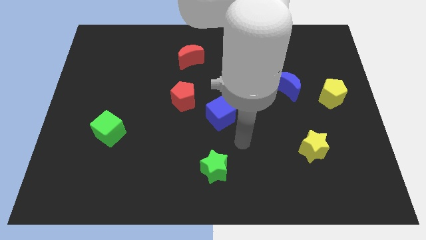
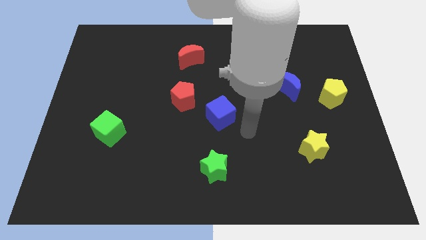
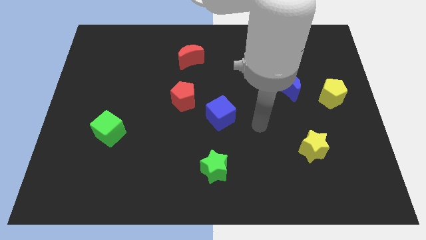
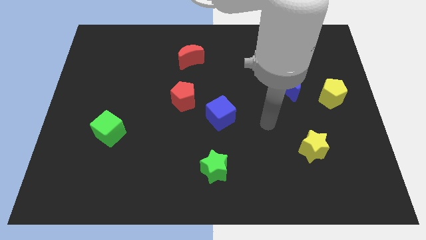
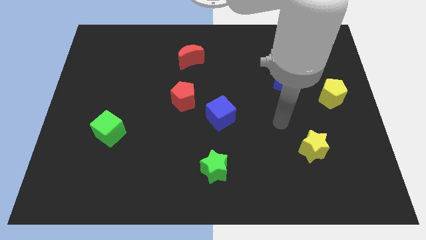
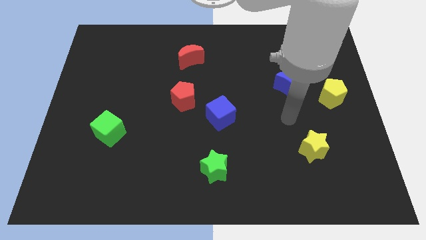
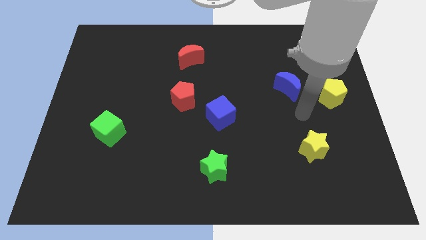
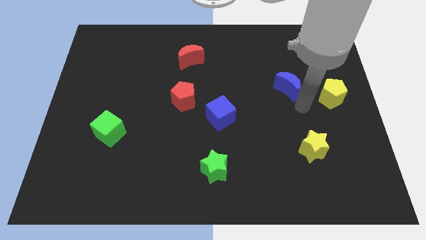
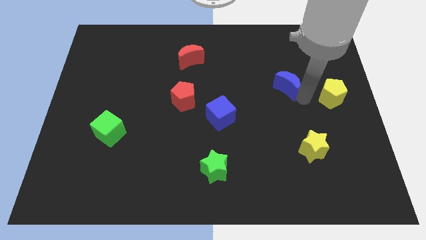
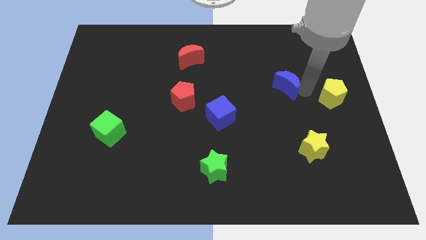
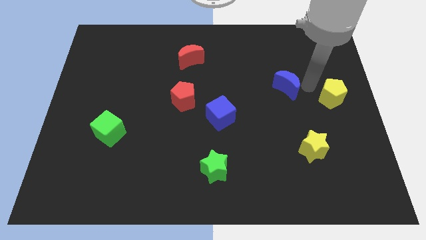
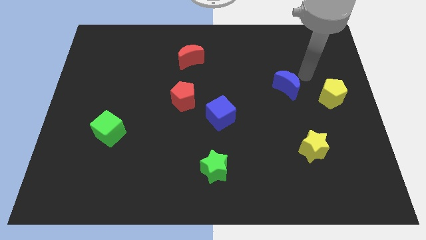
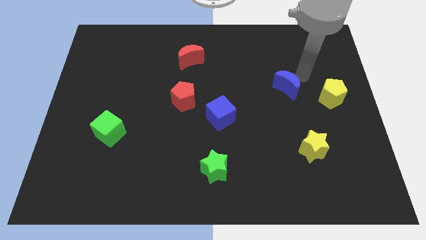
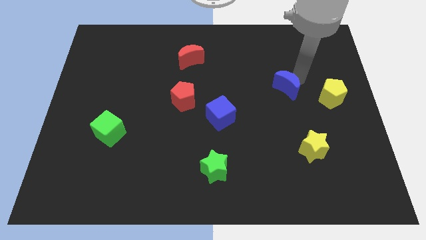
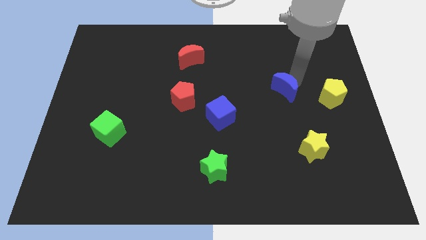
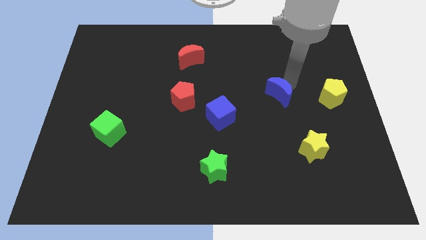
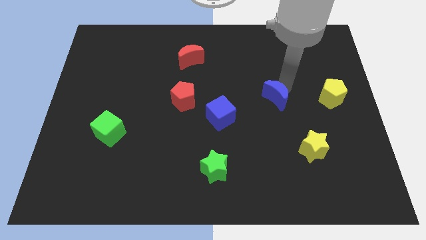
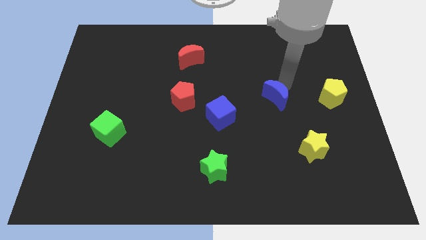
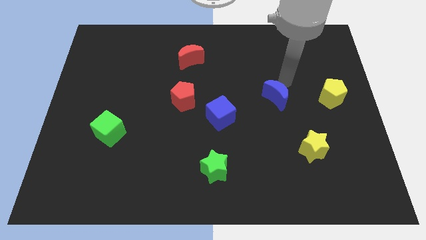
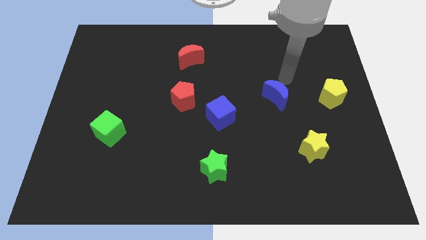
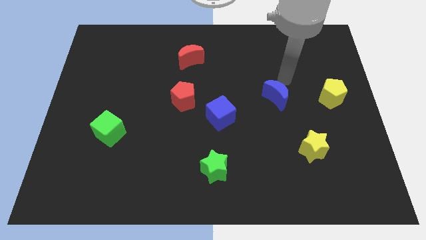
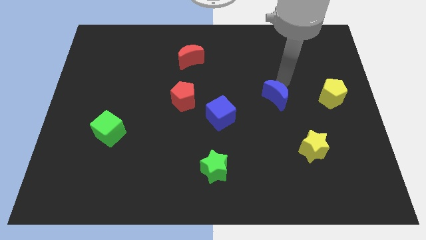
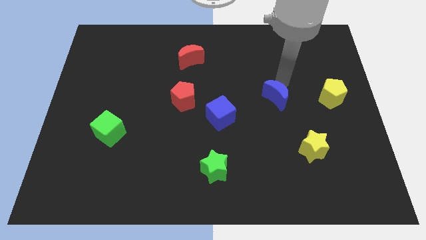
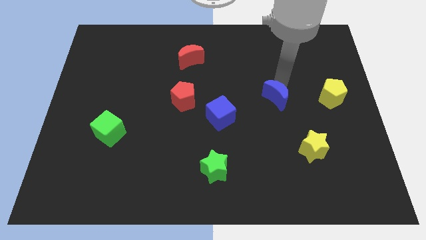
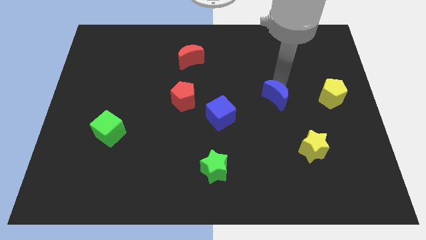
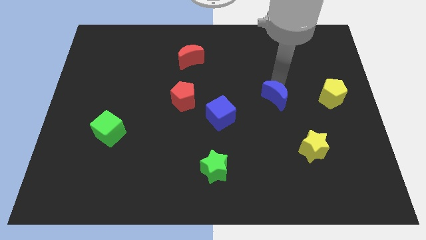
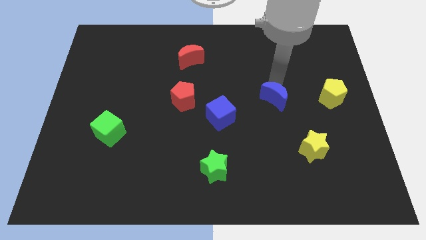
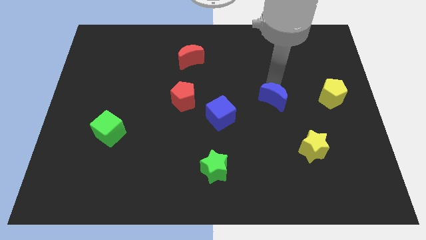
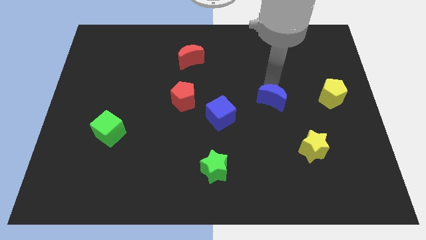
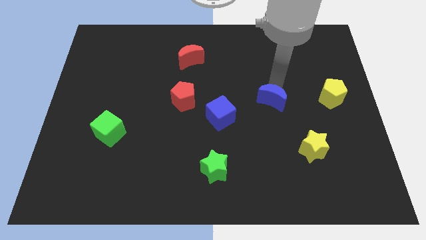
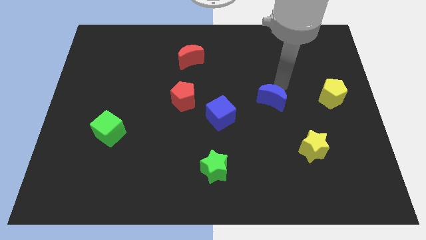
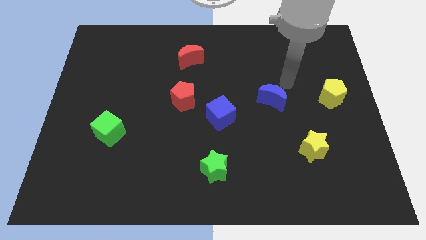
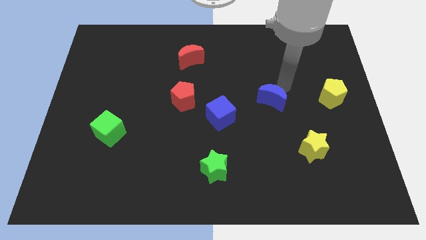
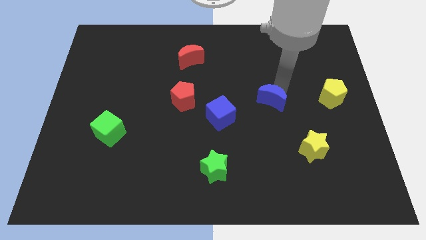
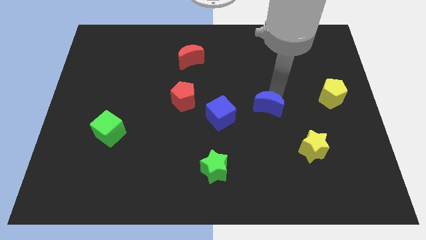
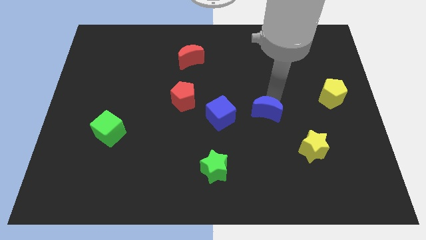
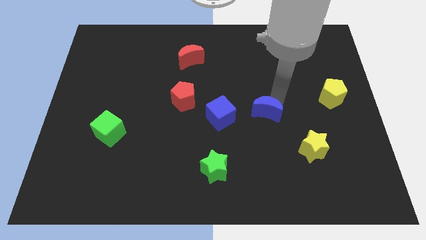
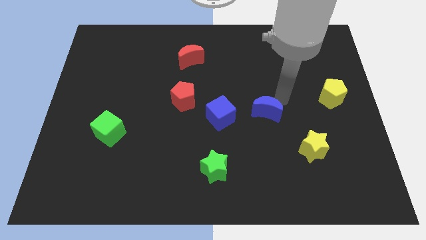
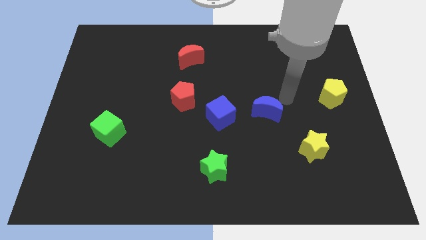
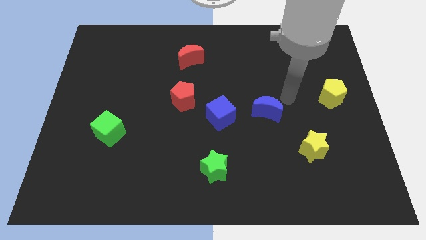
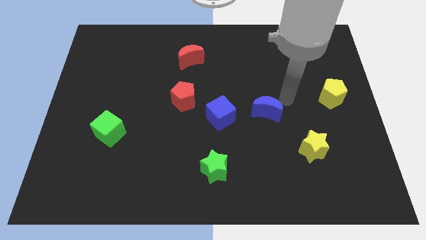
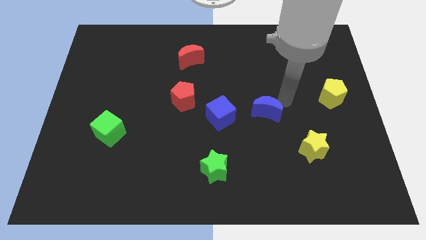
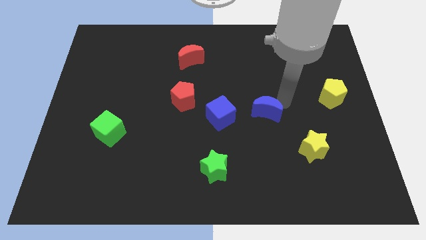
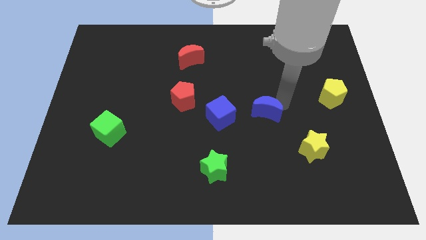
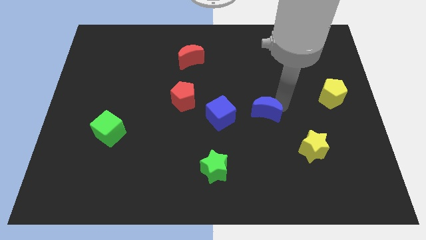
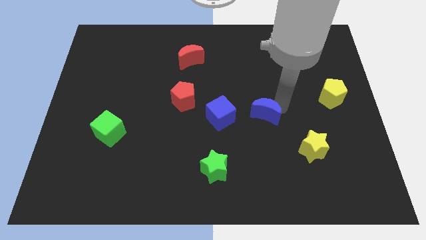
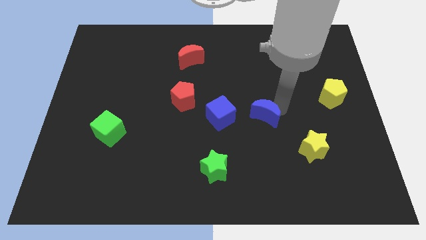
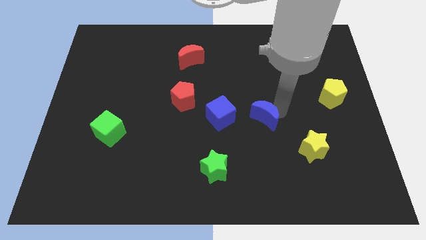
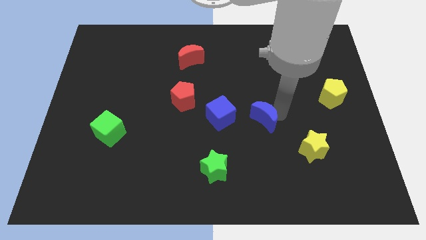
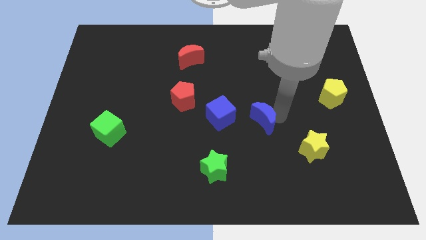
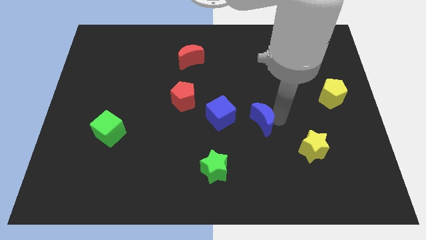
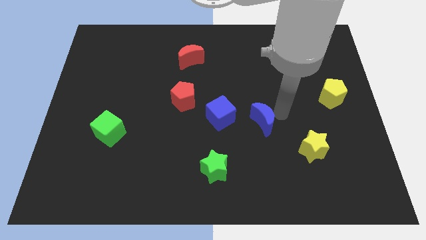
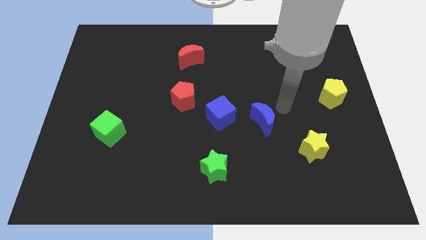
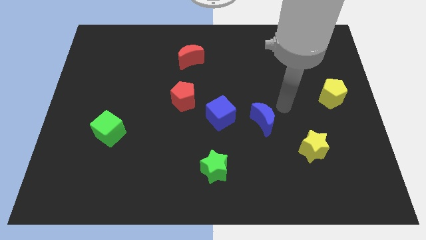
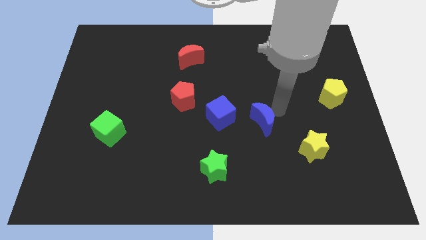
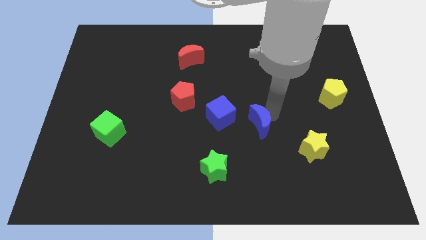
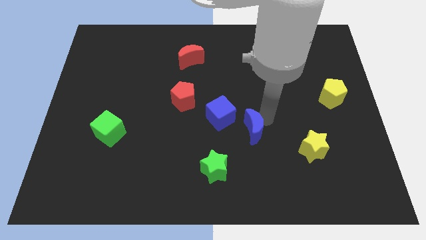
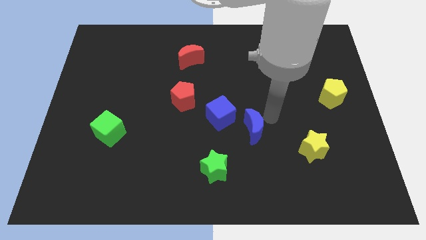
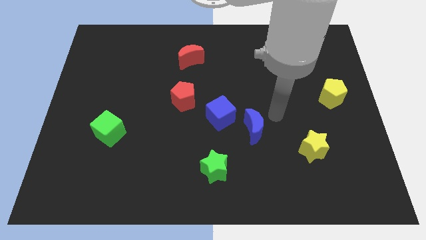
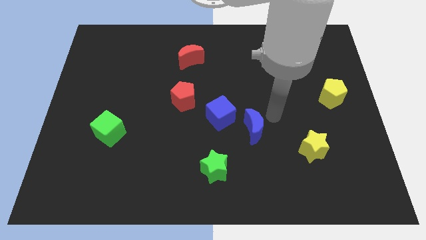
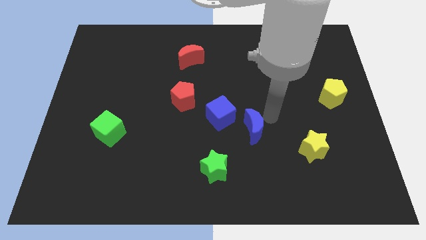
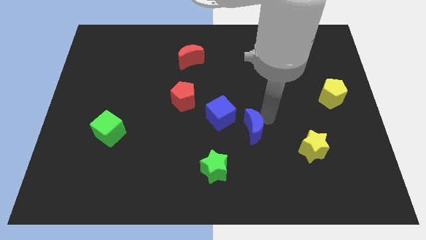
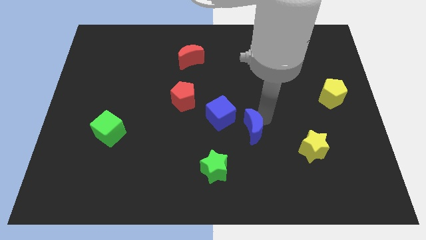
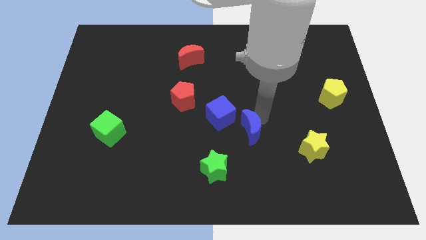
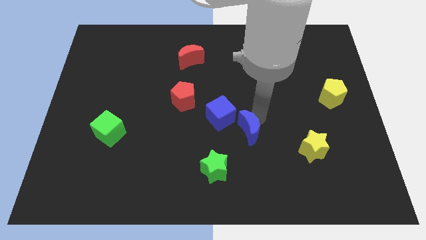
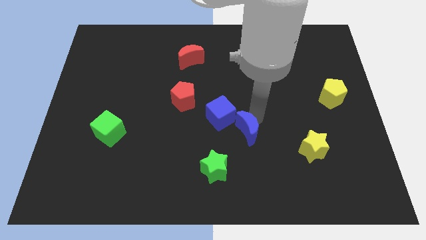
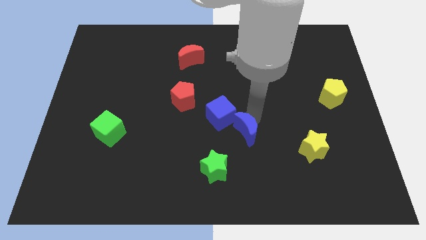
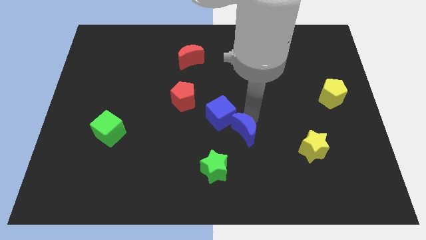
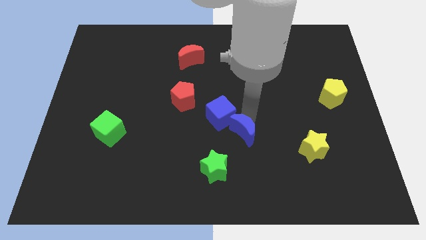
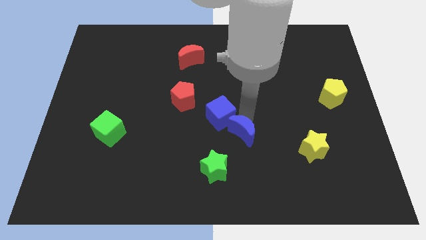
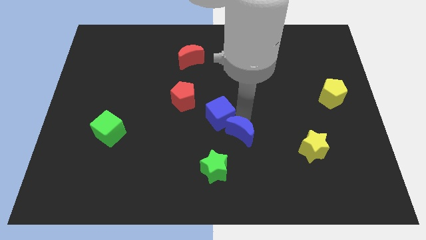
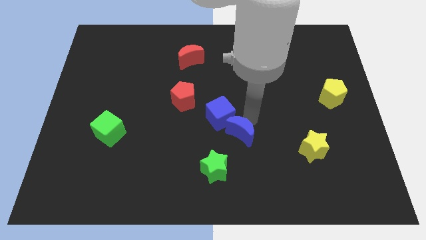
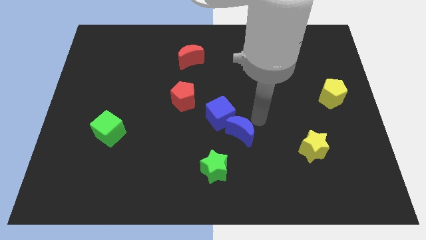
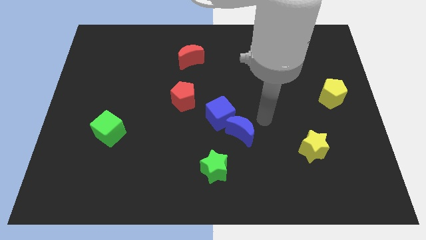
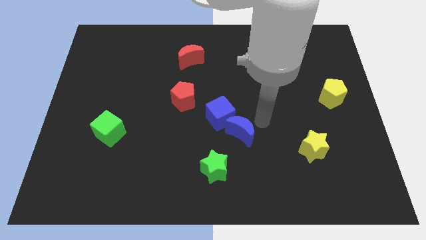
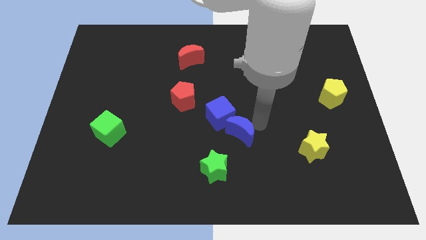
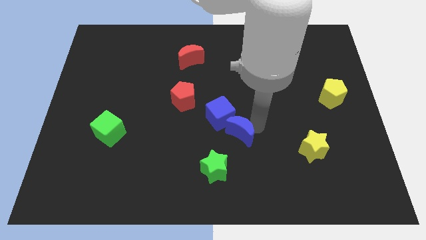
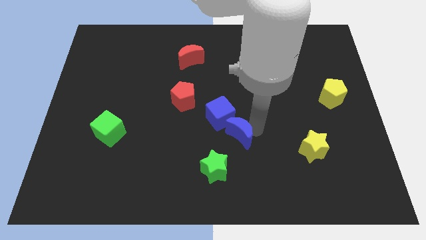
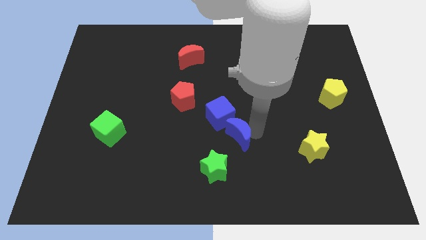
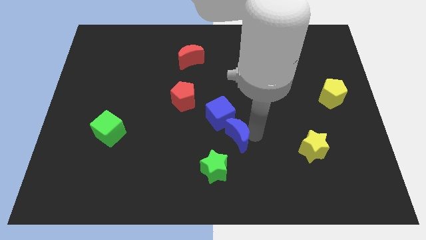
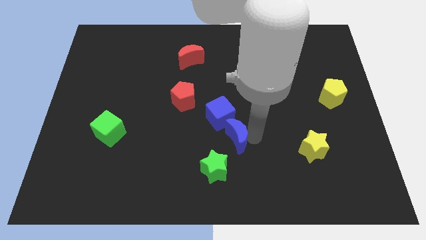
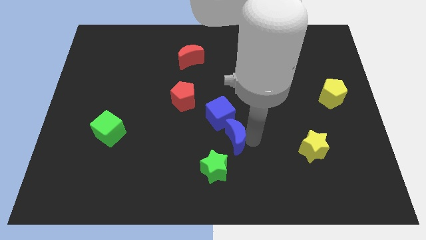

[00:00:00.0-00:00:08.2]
push the blue moon diagonally down and to the left

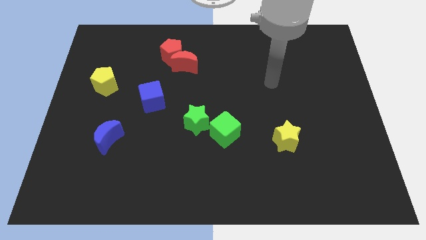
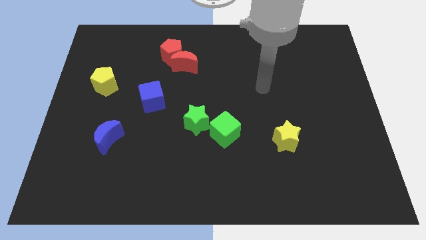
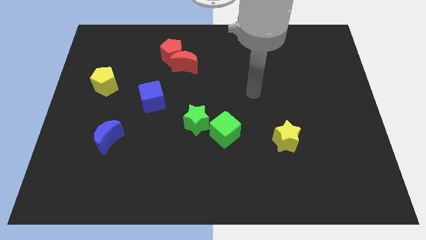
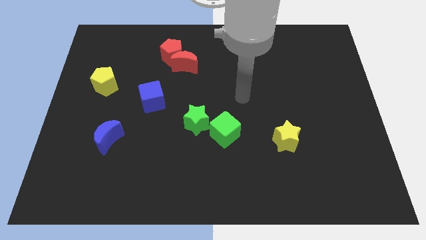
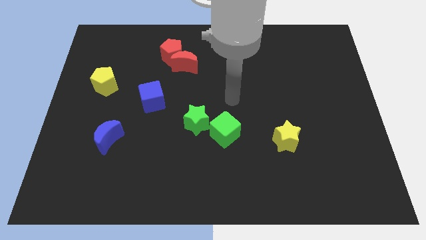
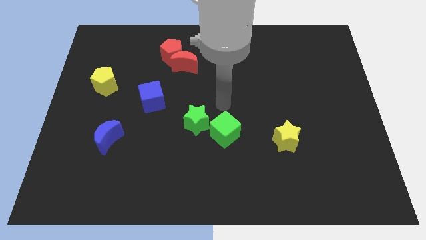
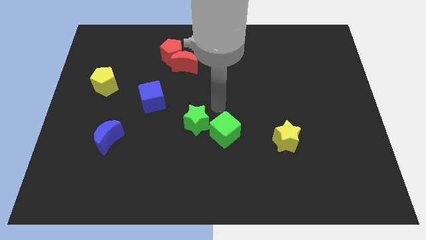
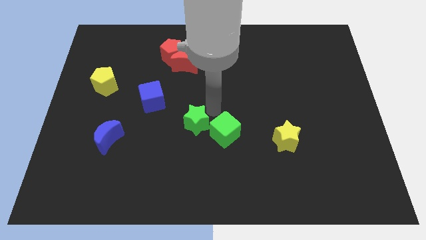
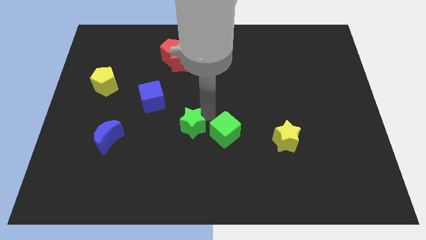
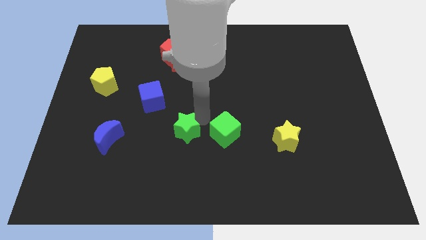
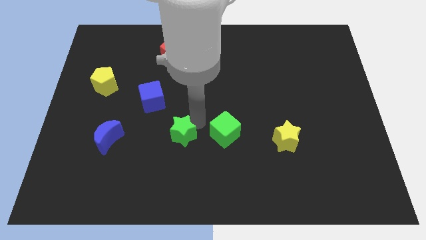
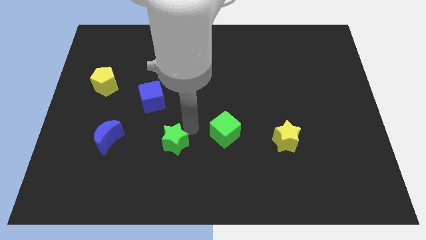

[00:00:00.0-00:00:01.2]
push the green star downwards and then left slightly
